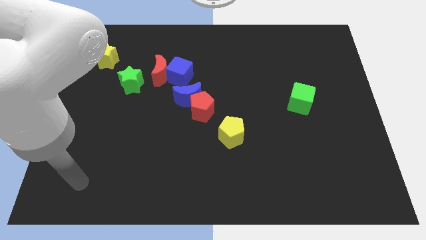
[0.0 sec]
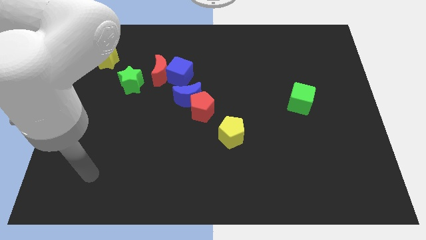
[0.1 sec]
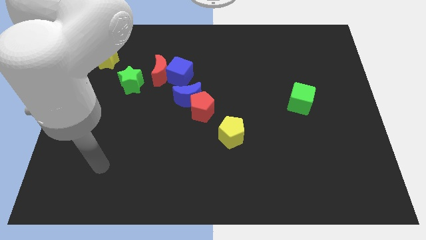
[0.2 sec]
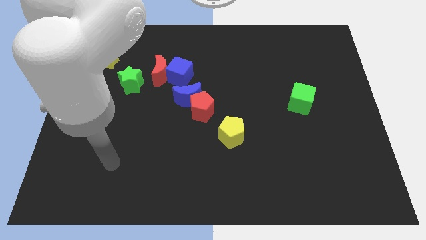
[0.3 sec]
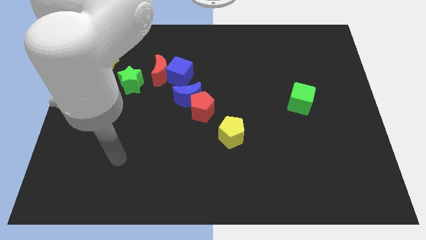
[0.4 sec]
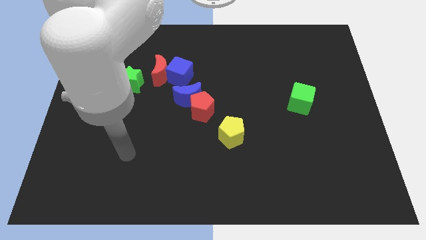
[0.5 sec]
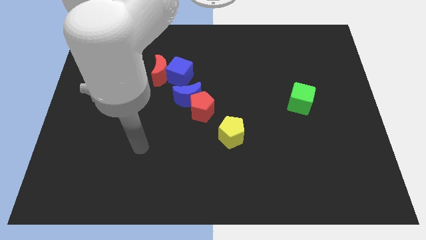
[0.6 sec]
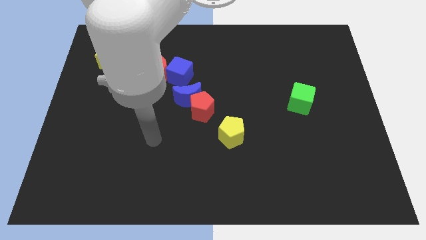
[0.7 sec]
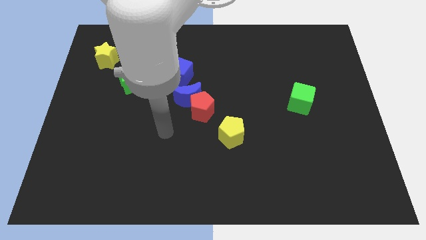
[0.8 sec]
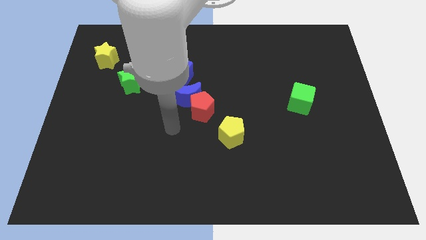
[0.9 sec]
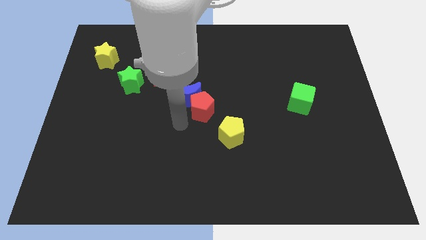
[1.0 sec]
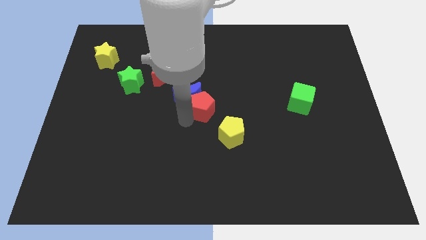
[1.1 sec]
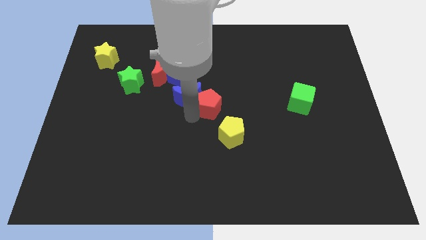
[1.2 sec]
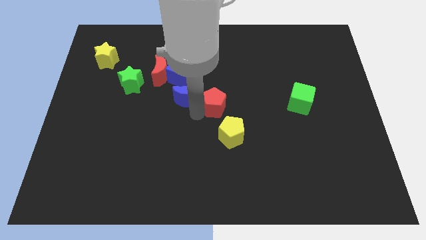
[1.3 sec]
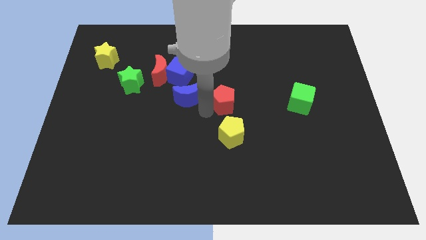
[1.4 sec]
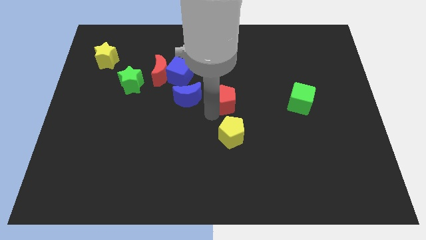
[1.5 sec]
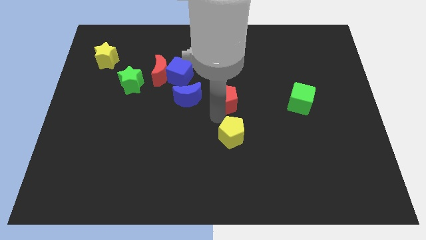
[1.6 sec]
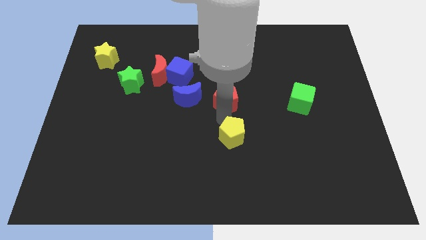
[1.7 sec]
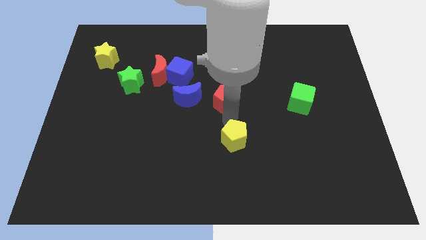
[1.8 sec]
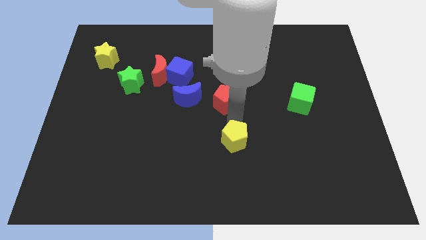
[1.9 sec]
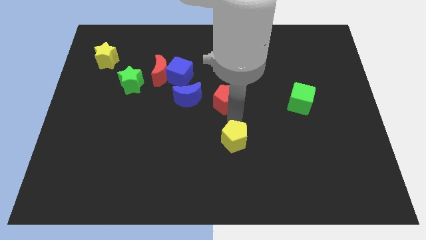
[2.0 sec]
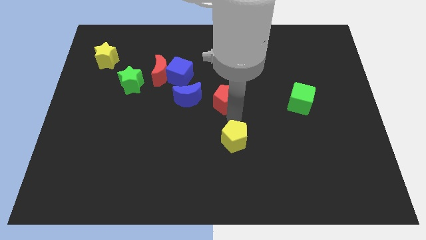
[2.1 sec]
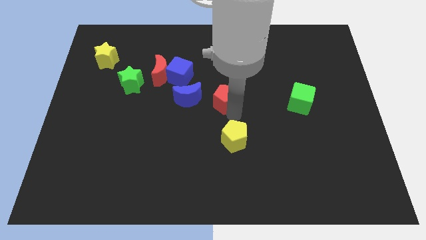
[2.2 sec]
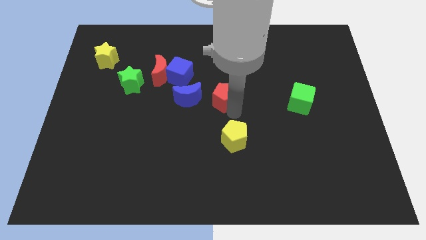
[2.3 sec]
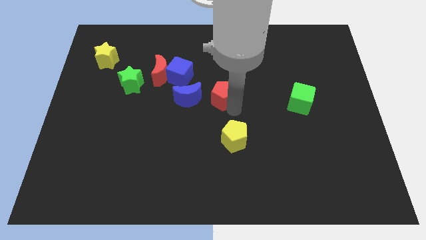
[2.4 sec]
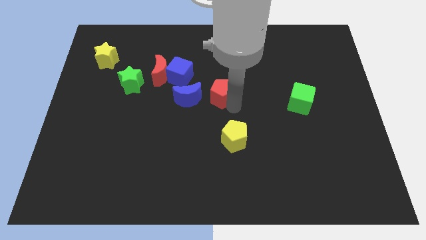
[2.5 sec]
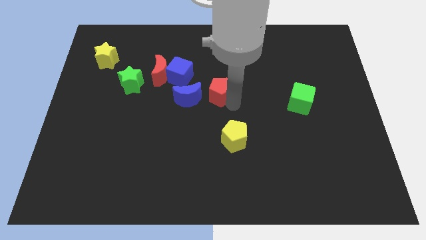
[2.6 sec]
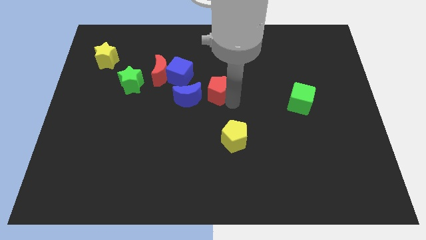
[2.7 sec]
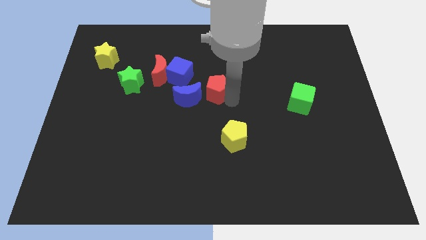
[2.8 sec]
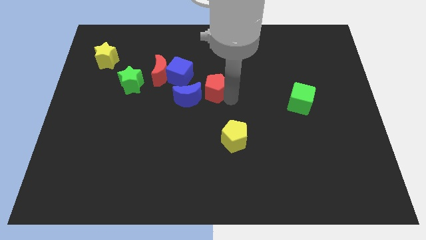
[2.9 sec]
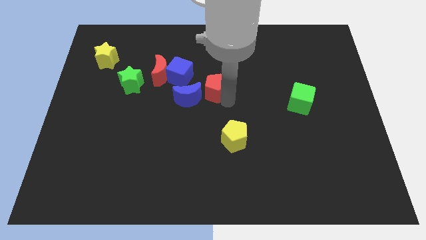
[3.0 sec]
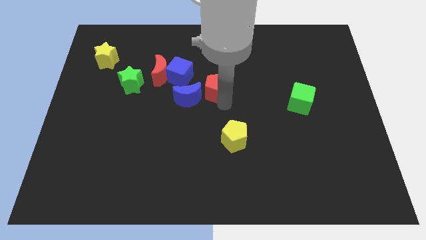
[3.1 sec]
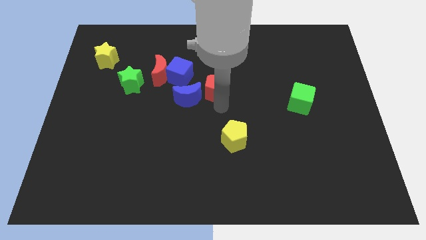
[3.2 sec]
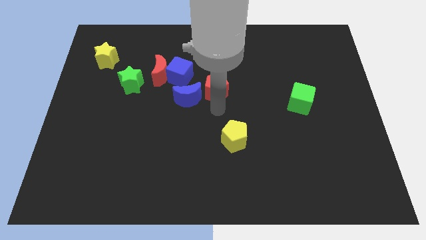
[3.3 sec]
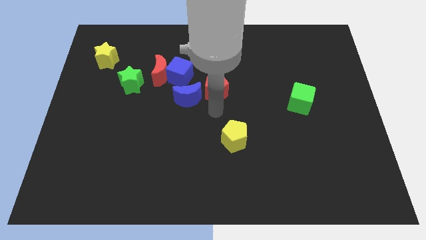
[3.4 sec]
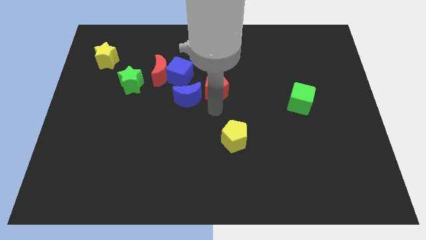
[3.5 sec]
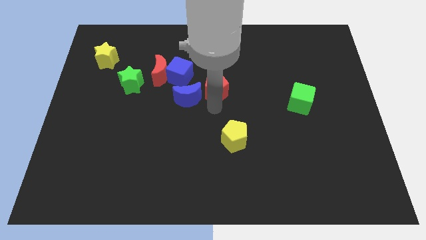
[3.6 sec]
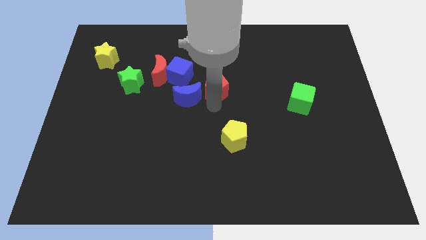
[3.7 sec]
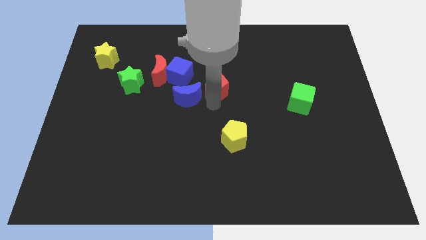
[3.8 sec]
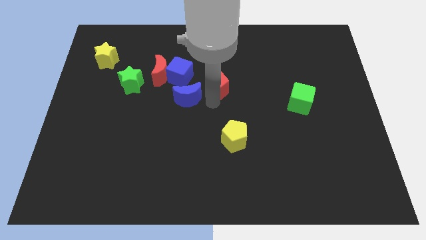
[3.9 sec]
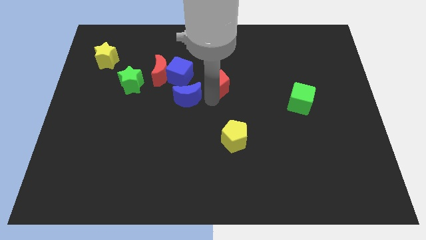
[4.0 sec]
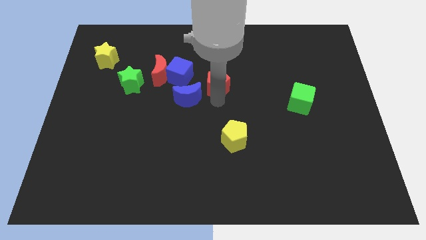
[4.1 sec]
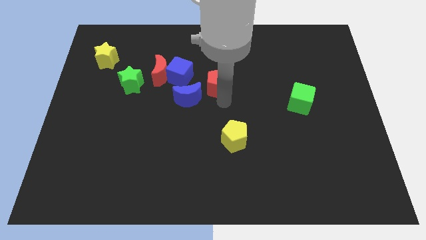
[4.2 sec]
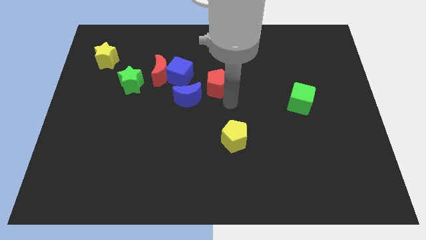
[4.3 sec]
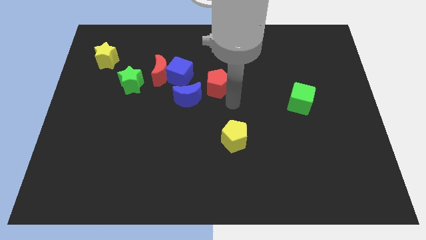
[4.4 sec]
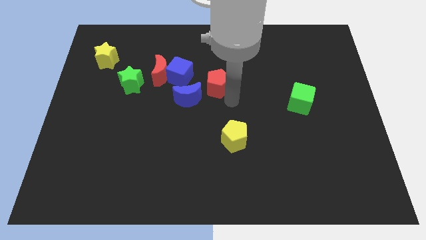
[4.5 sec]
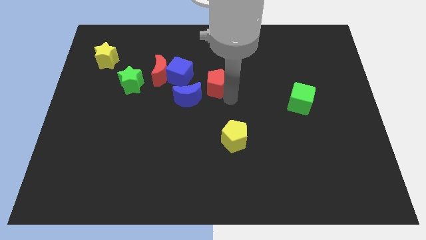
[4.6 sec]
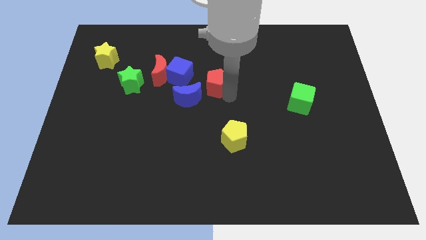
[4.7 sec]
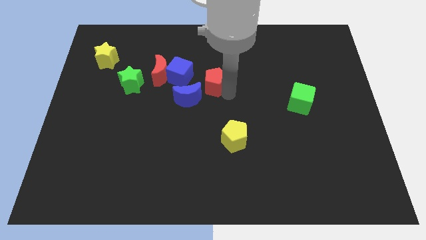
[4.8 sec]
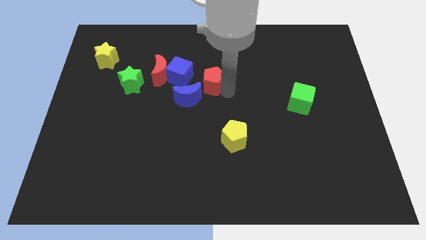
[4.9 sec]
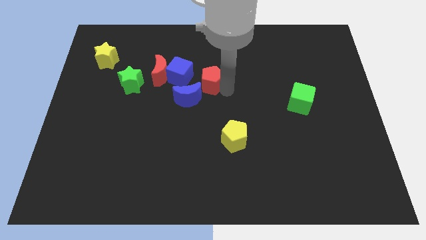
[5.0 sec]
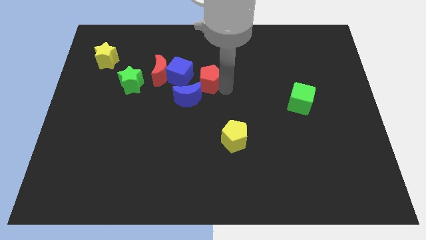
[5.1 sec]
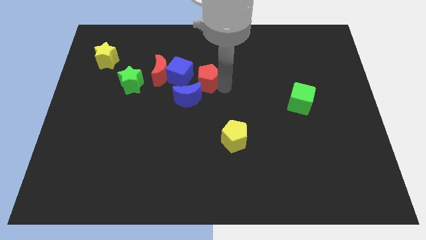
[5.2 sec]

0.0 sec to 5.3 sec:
move the red pentagon above the blue moon

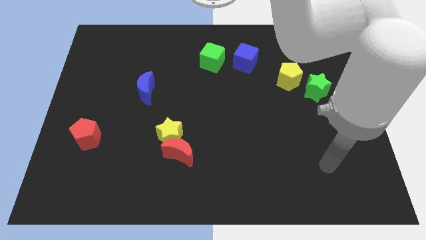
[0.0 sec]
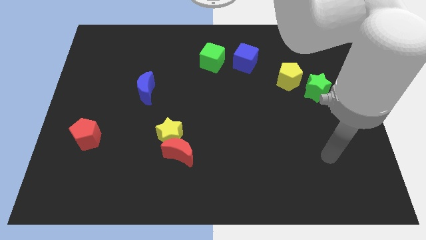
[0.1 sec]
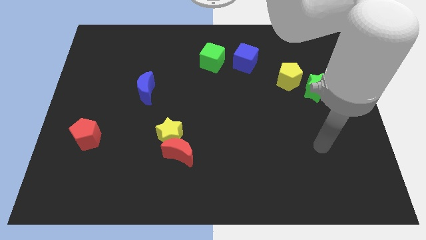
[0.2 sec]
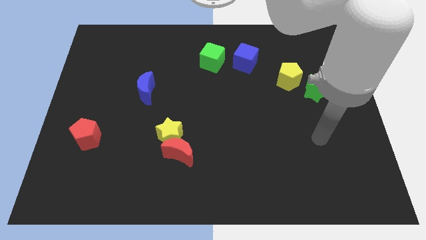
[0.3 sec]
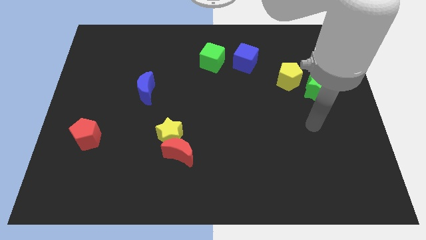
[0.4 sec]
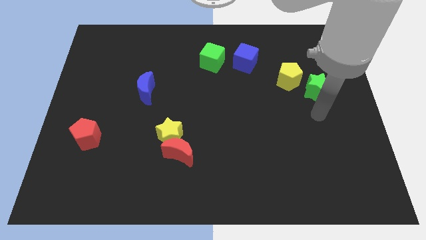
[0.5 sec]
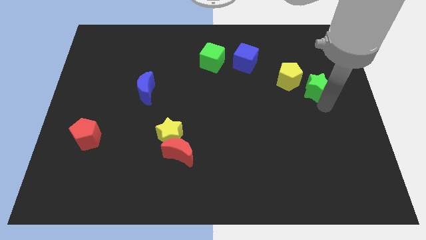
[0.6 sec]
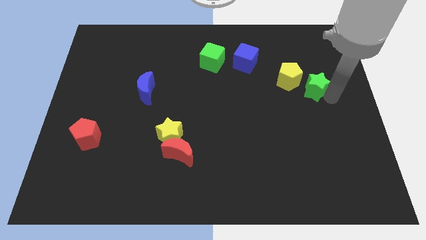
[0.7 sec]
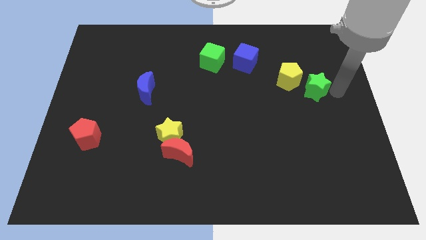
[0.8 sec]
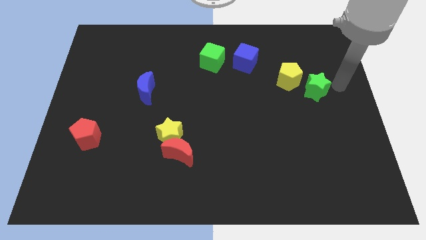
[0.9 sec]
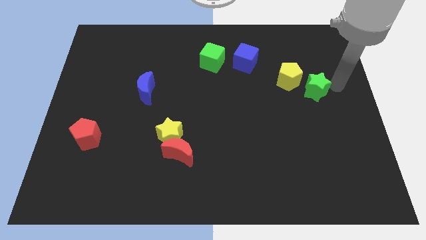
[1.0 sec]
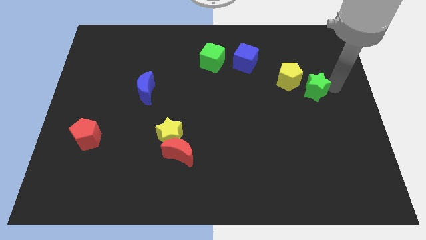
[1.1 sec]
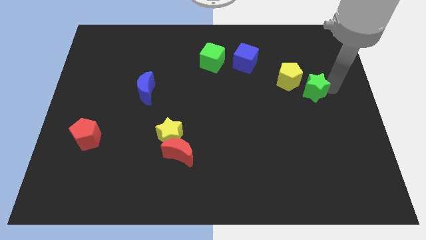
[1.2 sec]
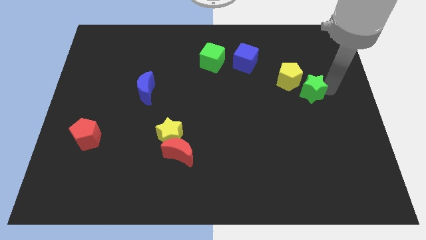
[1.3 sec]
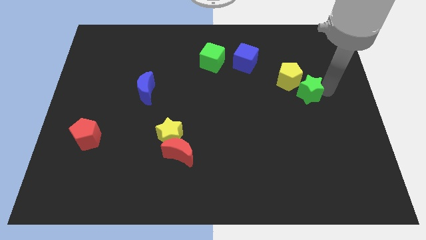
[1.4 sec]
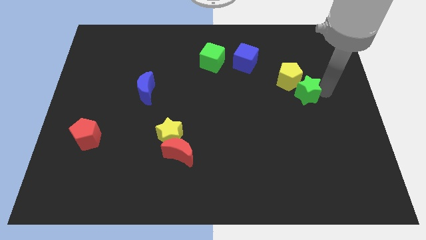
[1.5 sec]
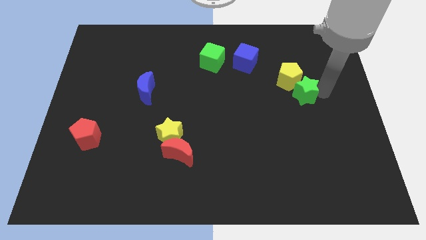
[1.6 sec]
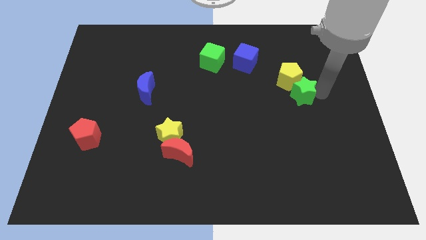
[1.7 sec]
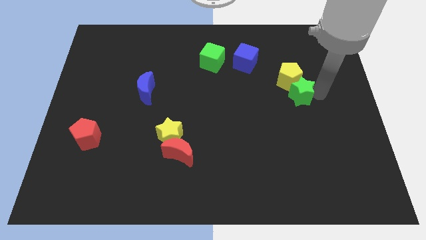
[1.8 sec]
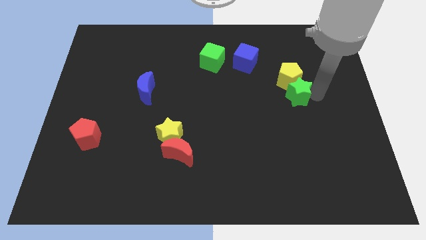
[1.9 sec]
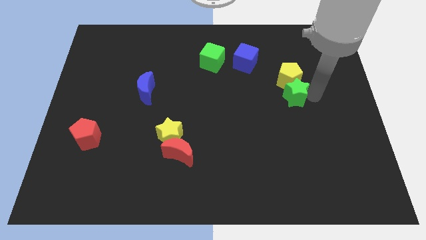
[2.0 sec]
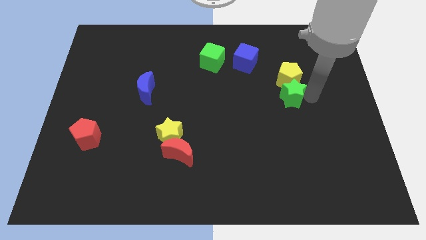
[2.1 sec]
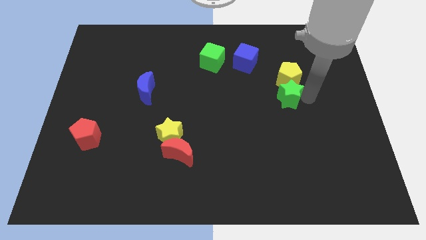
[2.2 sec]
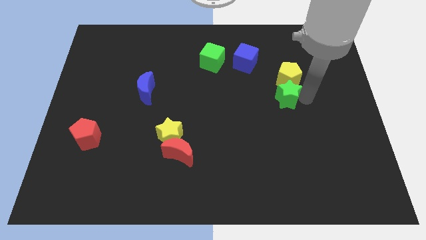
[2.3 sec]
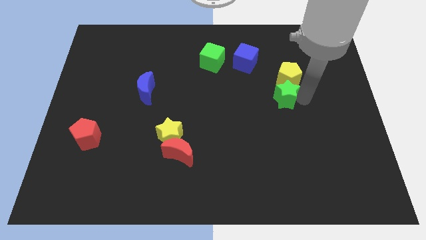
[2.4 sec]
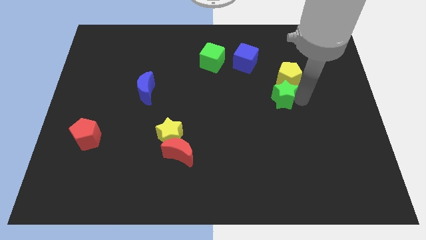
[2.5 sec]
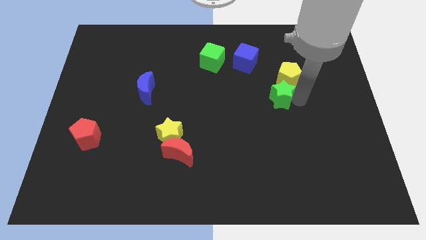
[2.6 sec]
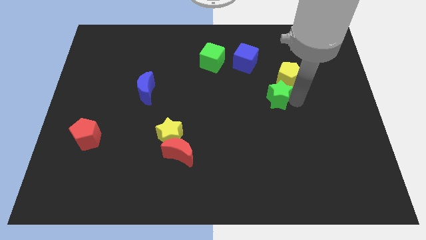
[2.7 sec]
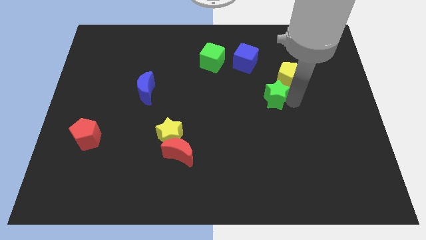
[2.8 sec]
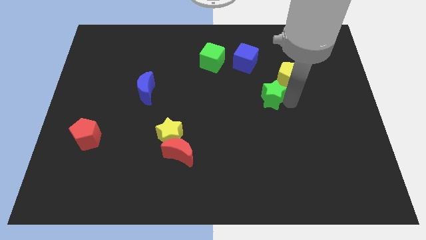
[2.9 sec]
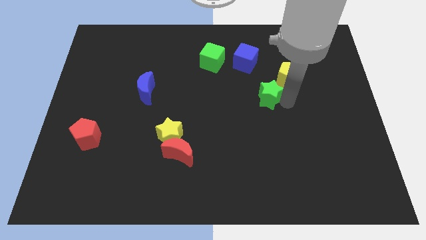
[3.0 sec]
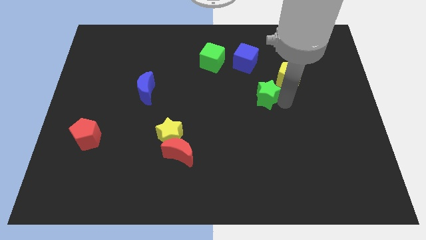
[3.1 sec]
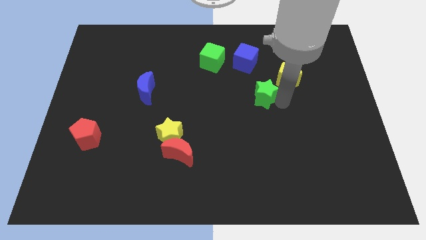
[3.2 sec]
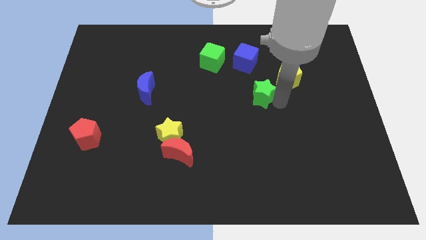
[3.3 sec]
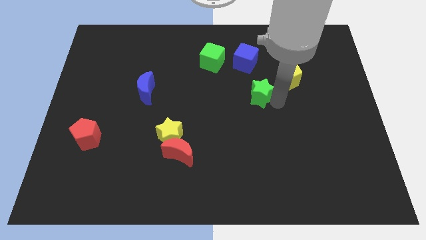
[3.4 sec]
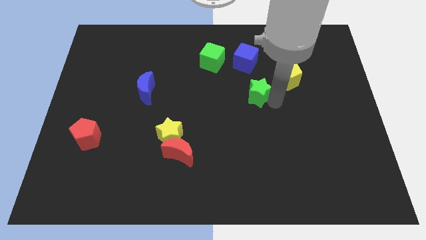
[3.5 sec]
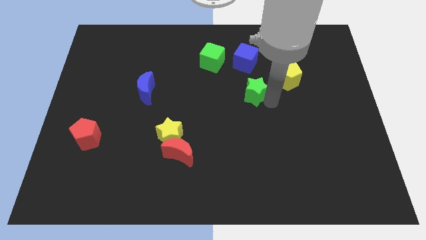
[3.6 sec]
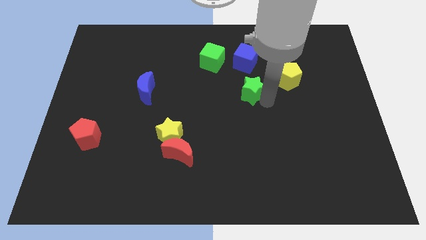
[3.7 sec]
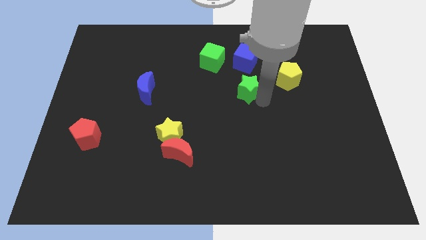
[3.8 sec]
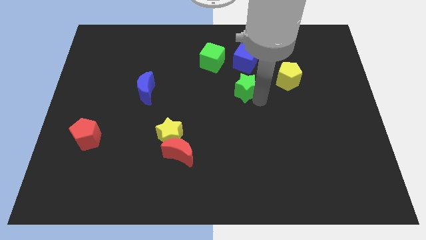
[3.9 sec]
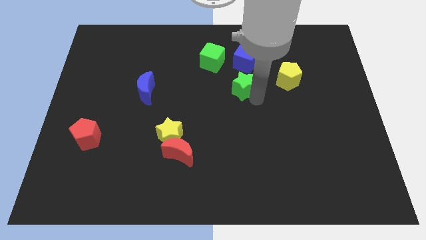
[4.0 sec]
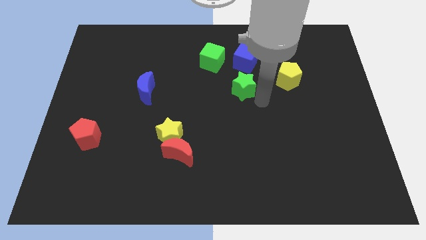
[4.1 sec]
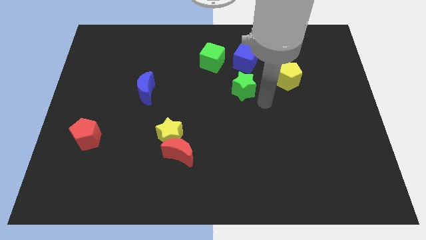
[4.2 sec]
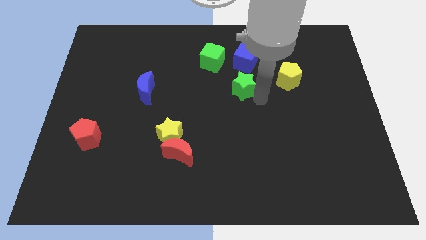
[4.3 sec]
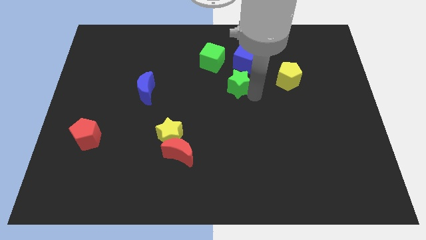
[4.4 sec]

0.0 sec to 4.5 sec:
put the green star to the bottom left of the blue cube
